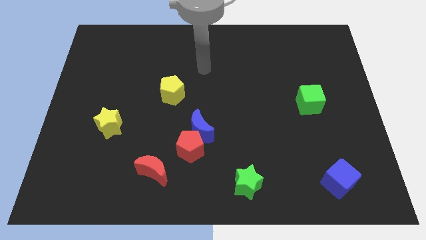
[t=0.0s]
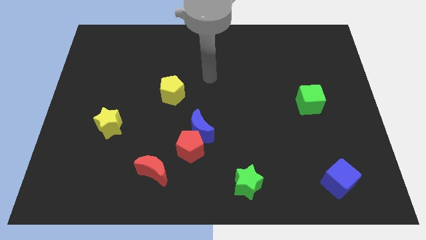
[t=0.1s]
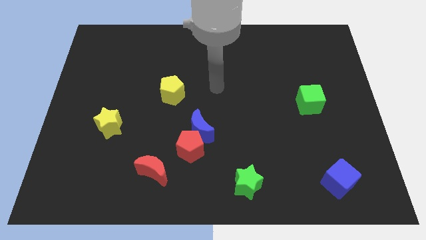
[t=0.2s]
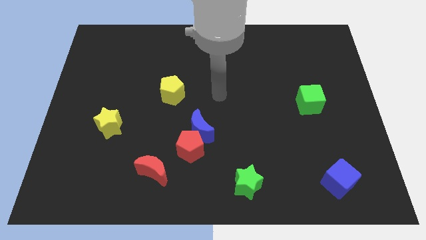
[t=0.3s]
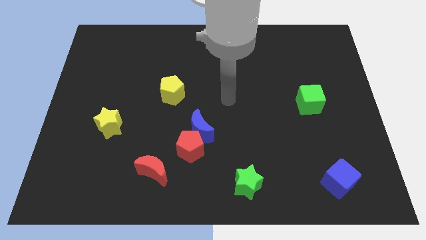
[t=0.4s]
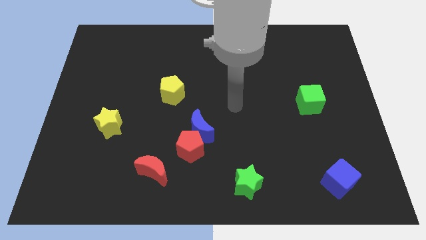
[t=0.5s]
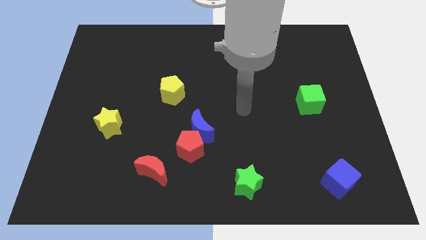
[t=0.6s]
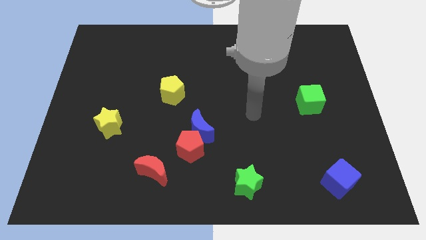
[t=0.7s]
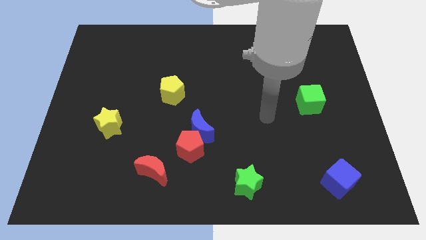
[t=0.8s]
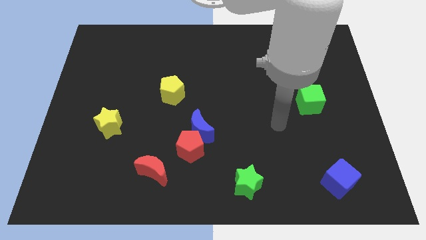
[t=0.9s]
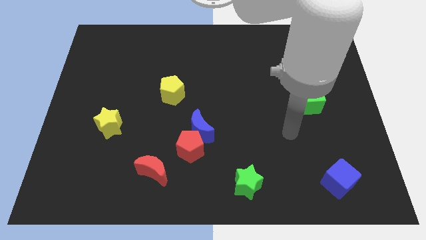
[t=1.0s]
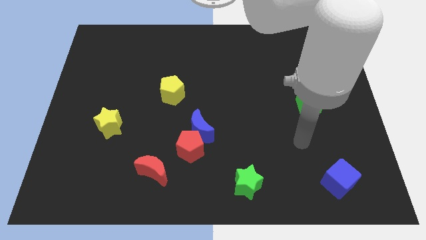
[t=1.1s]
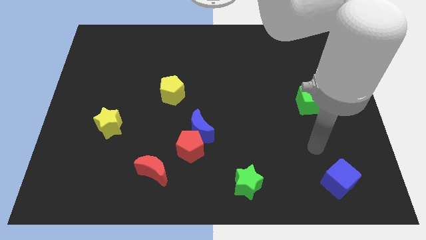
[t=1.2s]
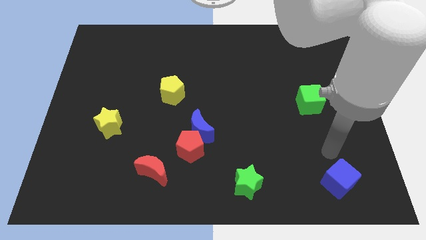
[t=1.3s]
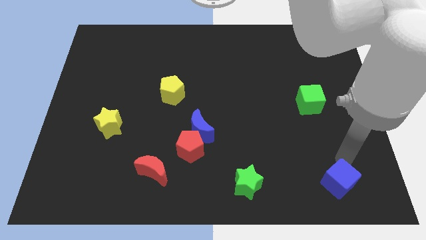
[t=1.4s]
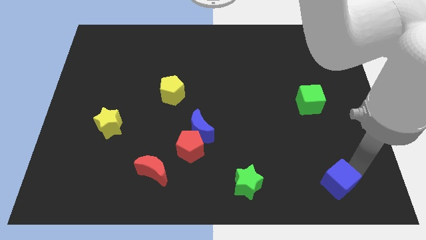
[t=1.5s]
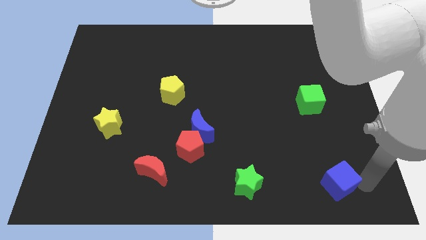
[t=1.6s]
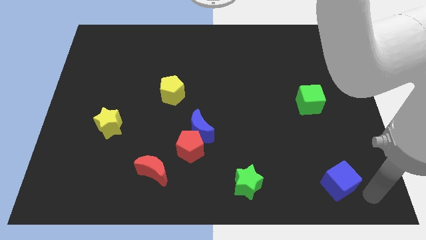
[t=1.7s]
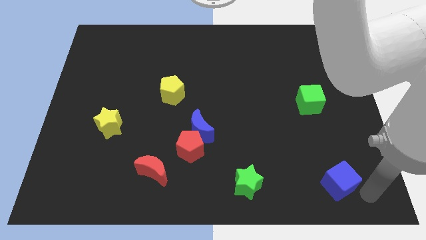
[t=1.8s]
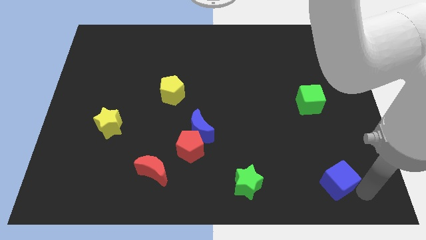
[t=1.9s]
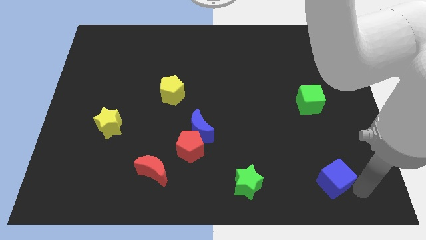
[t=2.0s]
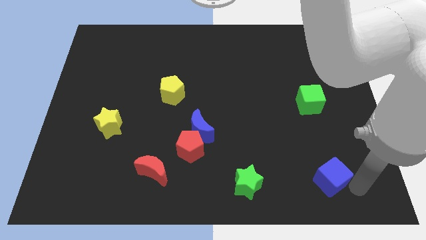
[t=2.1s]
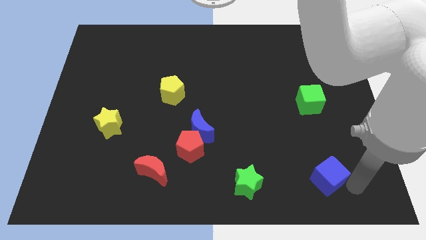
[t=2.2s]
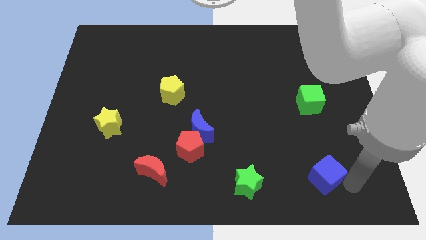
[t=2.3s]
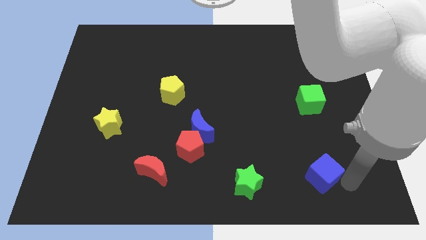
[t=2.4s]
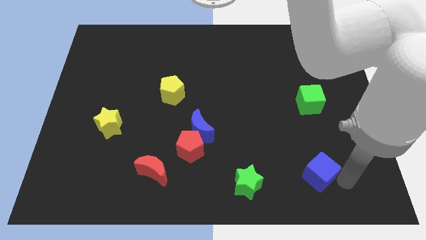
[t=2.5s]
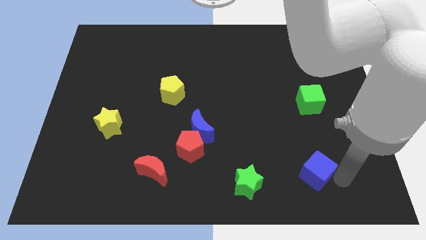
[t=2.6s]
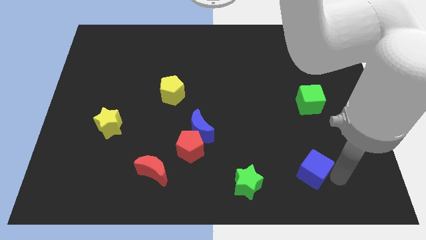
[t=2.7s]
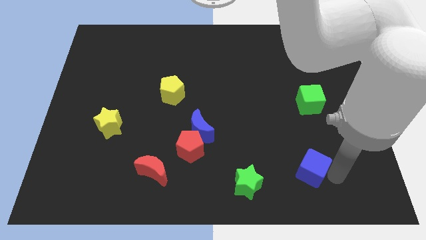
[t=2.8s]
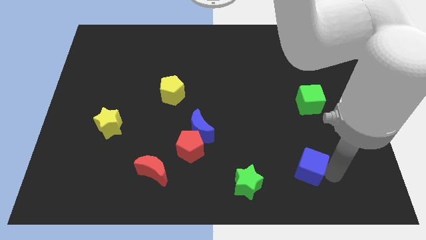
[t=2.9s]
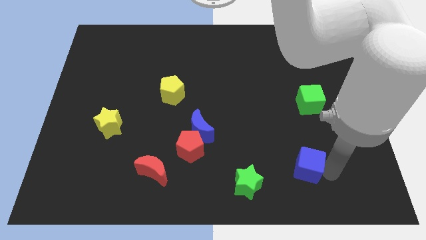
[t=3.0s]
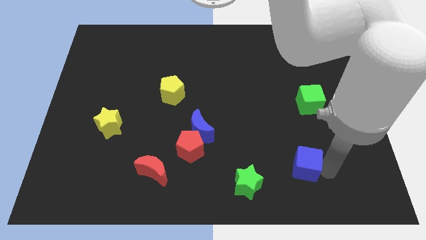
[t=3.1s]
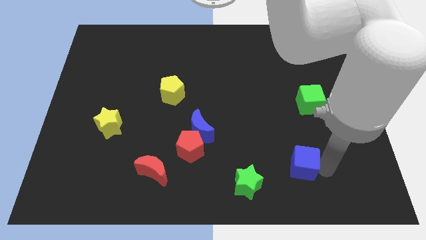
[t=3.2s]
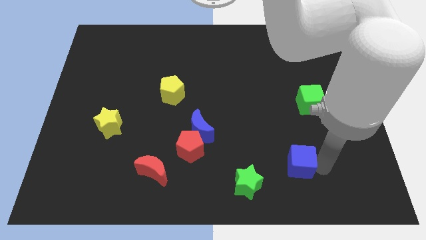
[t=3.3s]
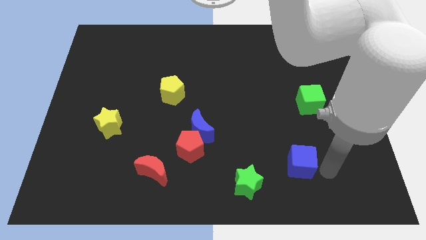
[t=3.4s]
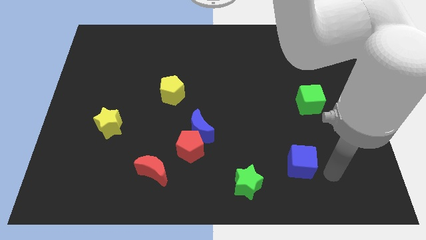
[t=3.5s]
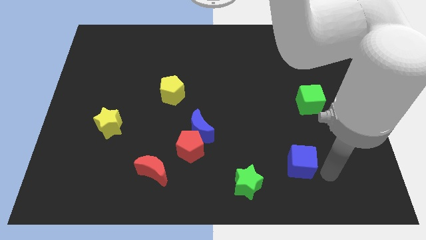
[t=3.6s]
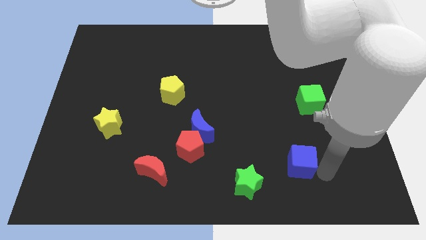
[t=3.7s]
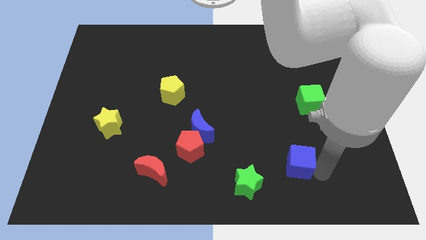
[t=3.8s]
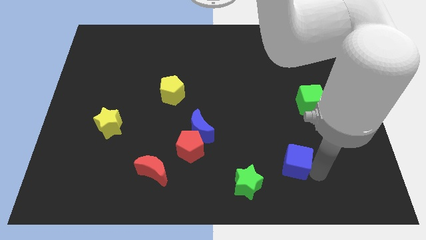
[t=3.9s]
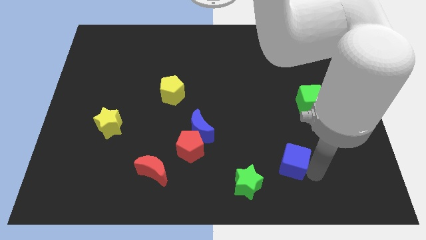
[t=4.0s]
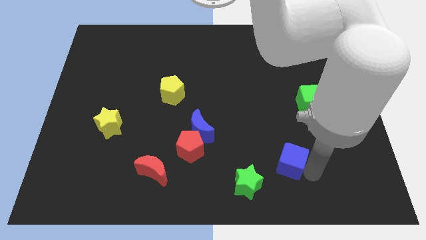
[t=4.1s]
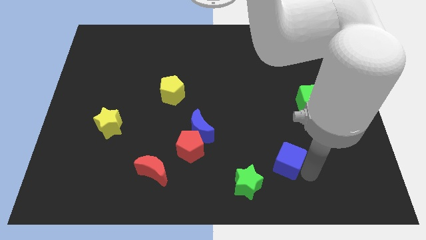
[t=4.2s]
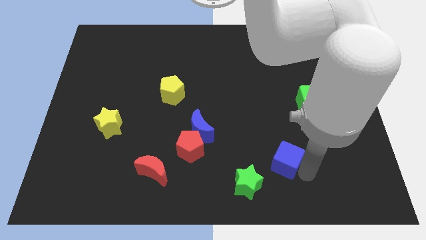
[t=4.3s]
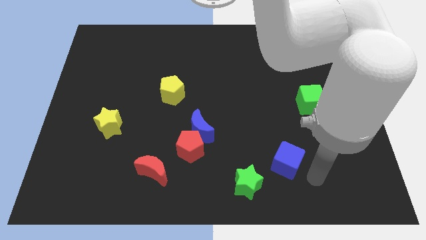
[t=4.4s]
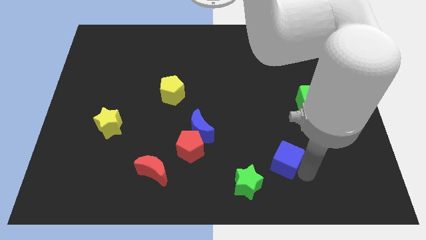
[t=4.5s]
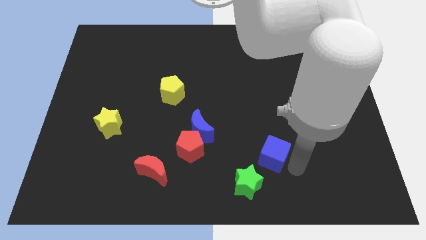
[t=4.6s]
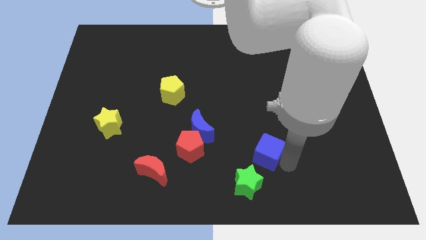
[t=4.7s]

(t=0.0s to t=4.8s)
put the blue cube to the top of the green star

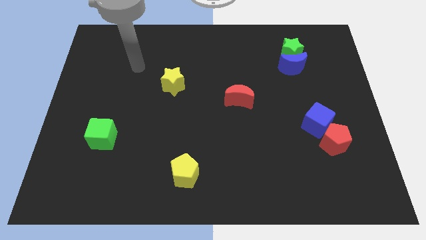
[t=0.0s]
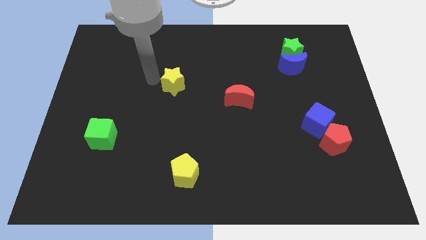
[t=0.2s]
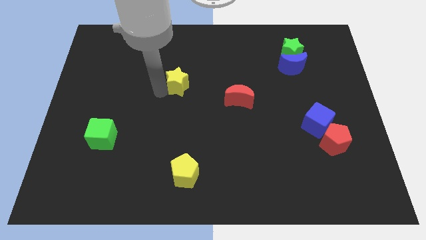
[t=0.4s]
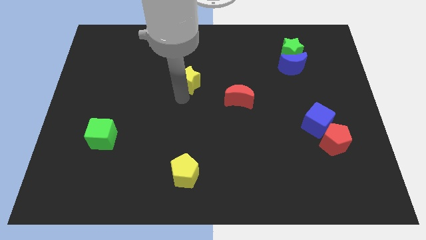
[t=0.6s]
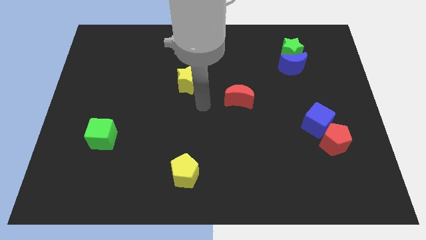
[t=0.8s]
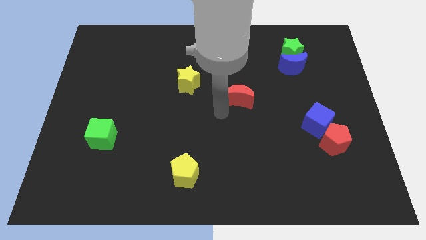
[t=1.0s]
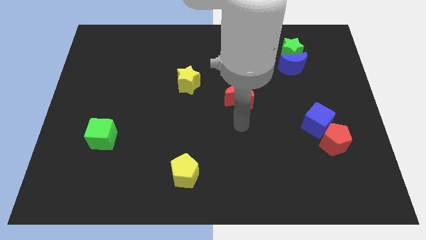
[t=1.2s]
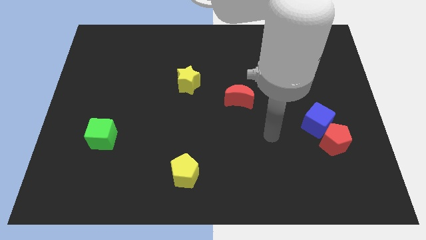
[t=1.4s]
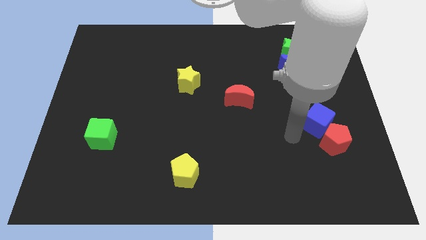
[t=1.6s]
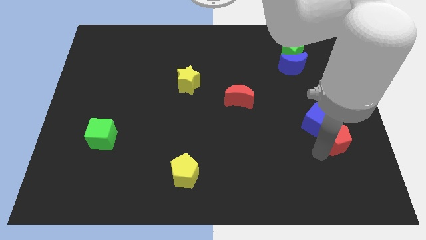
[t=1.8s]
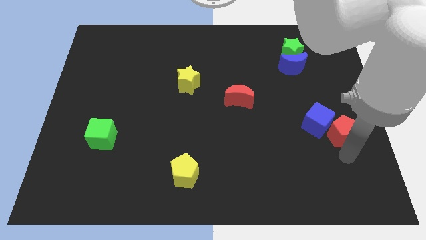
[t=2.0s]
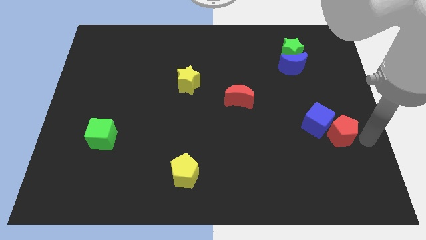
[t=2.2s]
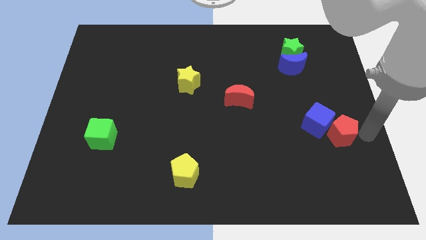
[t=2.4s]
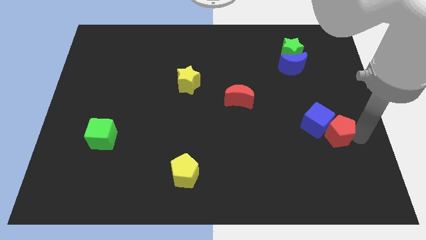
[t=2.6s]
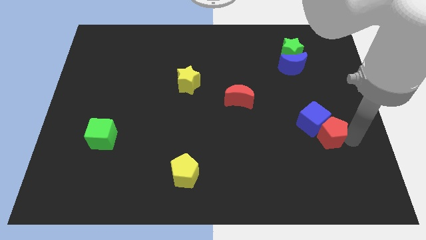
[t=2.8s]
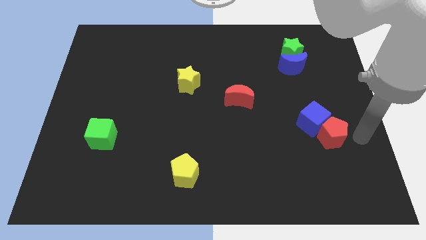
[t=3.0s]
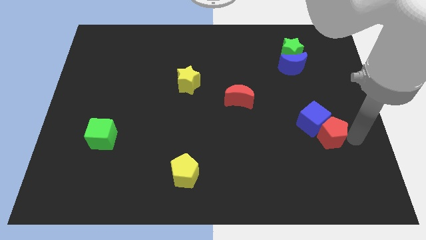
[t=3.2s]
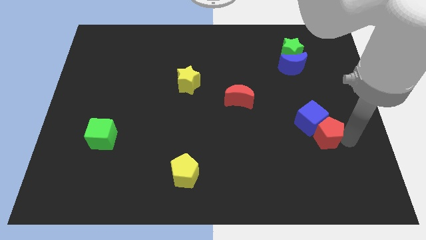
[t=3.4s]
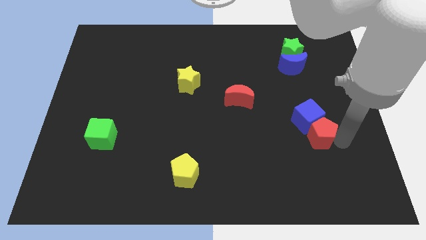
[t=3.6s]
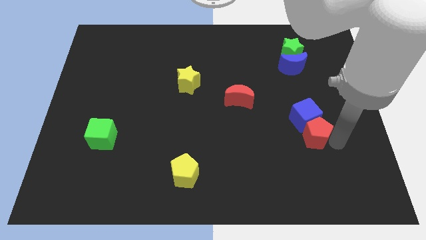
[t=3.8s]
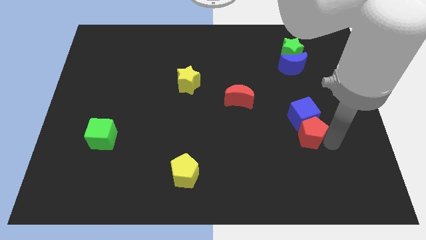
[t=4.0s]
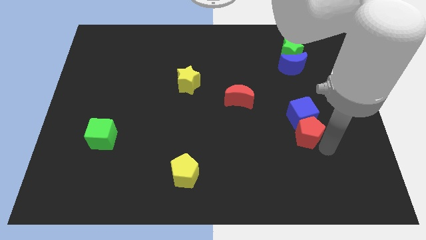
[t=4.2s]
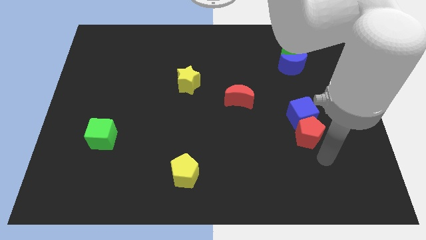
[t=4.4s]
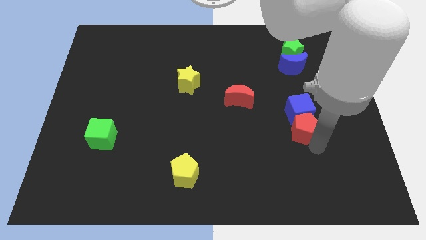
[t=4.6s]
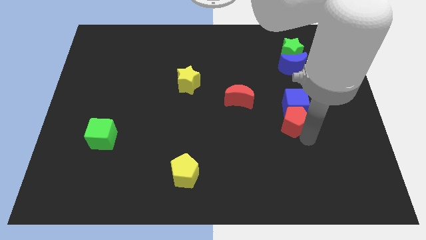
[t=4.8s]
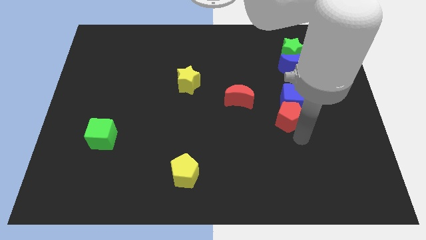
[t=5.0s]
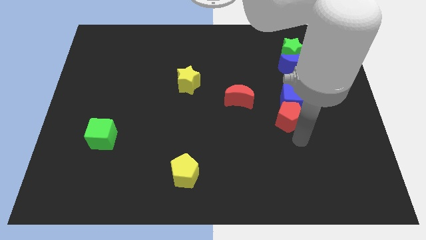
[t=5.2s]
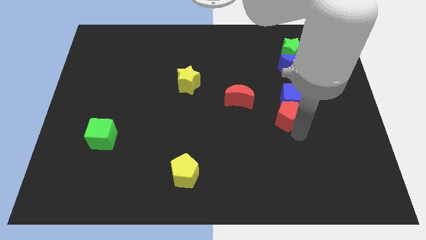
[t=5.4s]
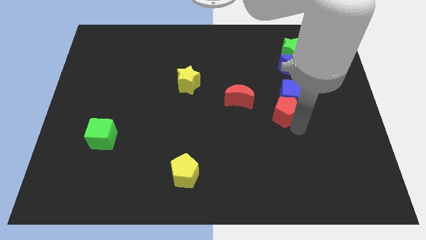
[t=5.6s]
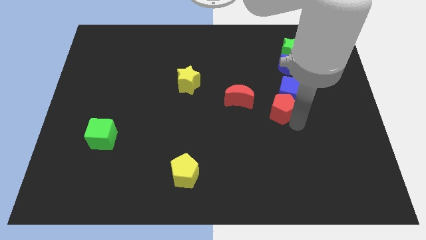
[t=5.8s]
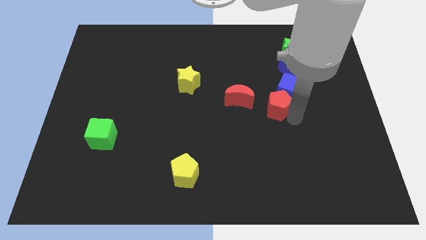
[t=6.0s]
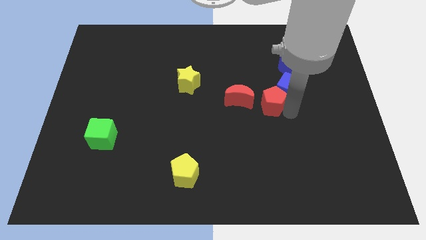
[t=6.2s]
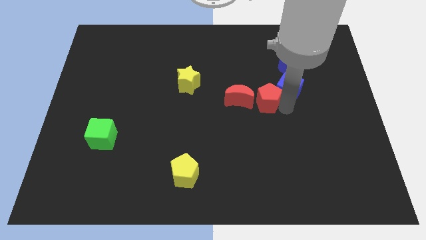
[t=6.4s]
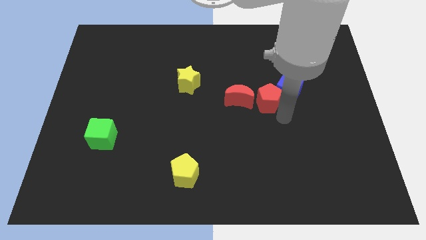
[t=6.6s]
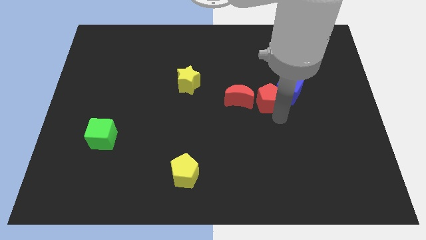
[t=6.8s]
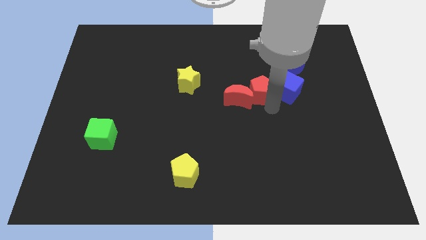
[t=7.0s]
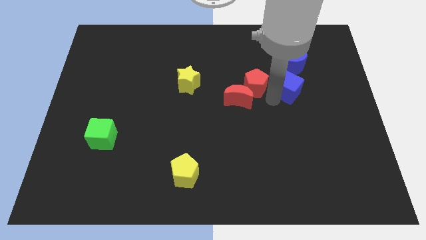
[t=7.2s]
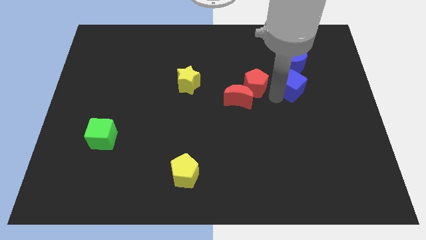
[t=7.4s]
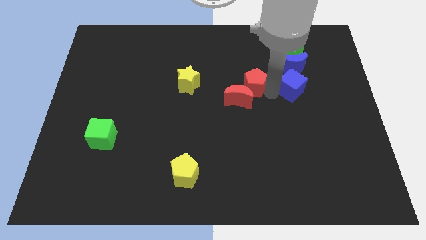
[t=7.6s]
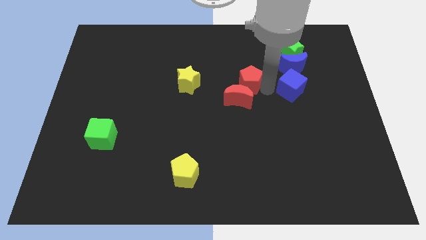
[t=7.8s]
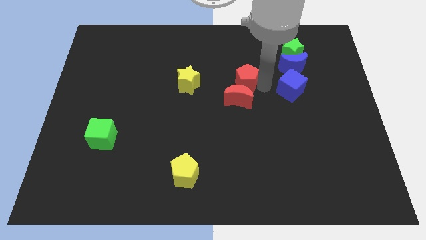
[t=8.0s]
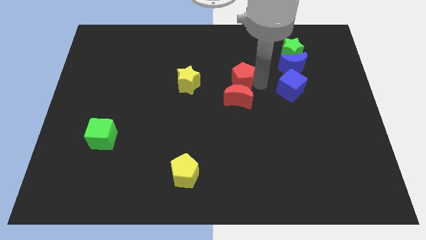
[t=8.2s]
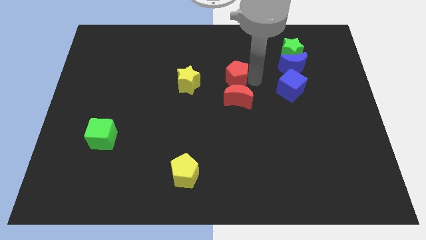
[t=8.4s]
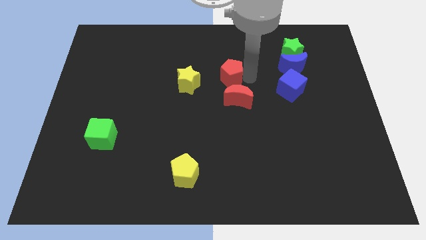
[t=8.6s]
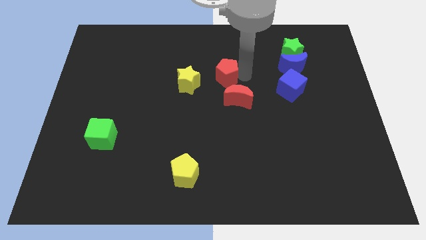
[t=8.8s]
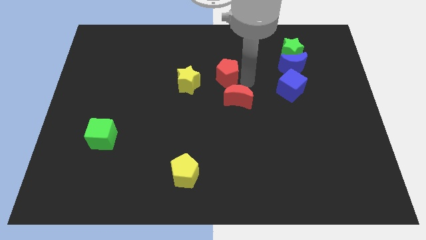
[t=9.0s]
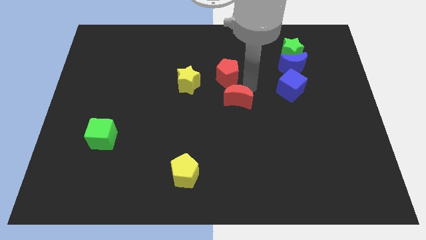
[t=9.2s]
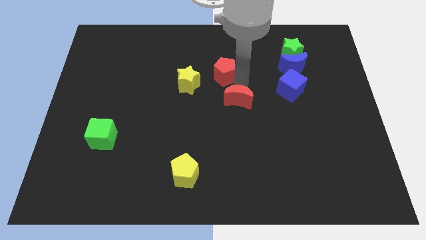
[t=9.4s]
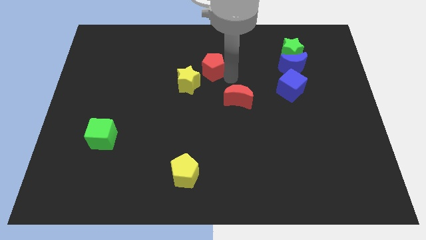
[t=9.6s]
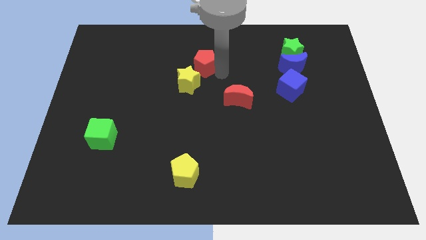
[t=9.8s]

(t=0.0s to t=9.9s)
move the red pentagon to the top side of the yellow star
